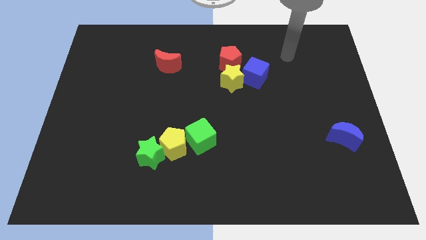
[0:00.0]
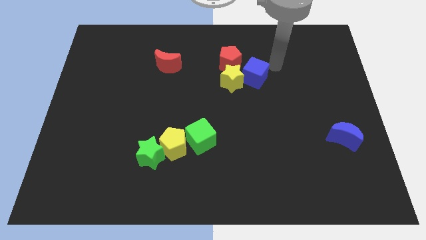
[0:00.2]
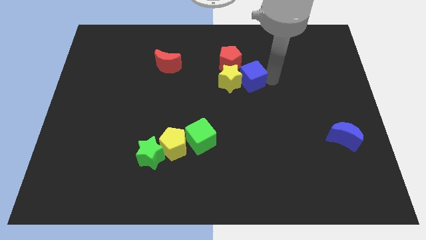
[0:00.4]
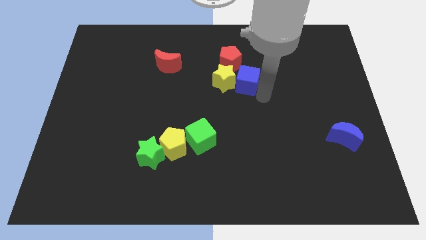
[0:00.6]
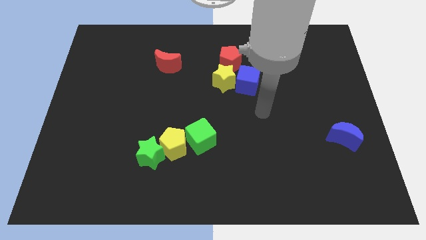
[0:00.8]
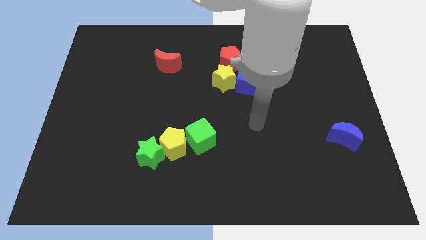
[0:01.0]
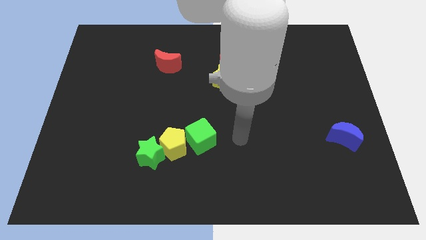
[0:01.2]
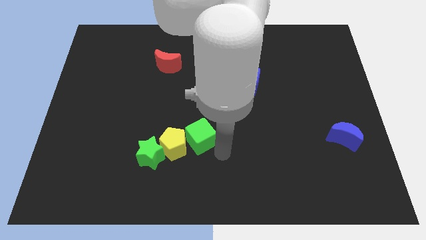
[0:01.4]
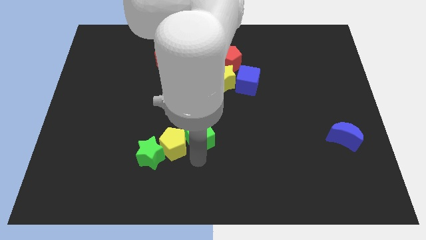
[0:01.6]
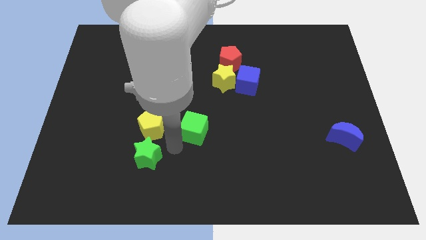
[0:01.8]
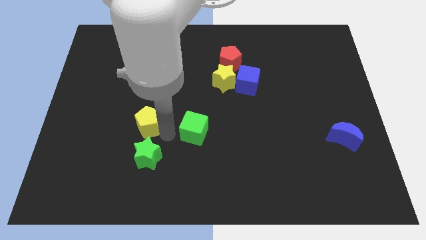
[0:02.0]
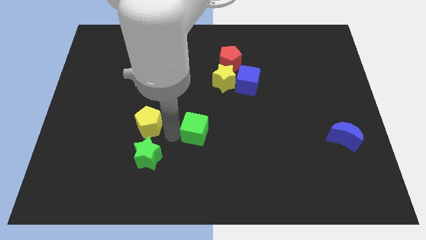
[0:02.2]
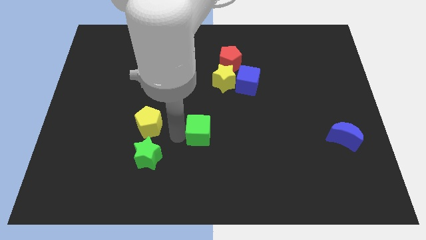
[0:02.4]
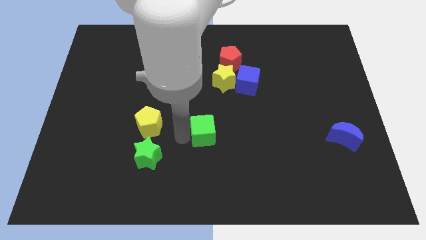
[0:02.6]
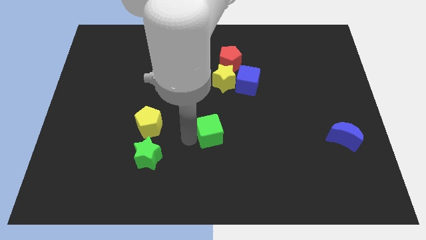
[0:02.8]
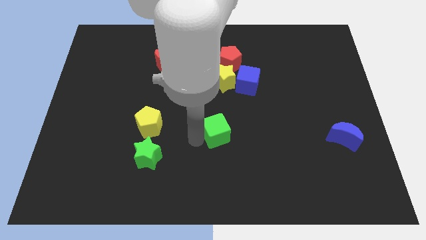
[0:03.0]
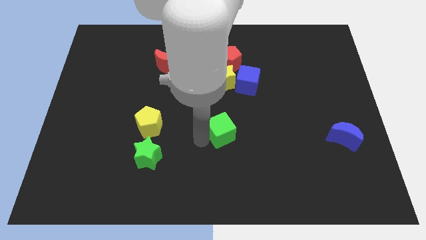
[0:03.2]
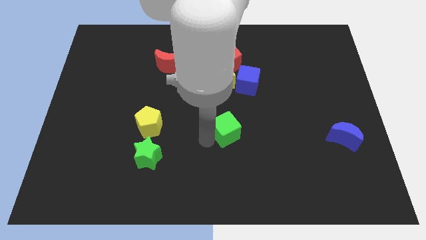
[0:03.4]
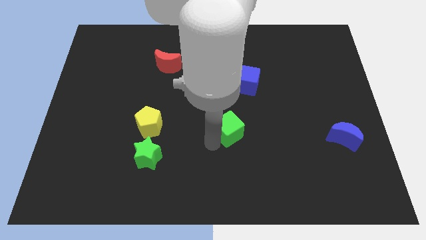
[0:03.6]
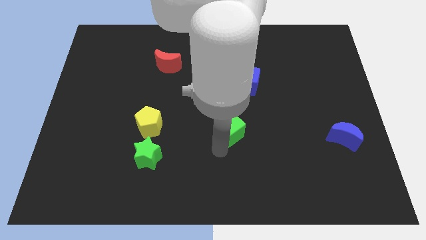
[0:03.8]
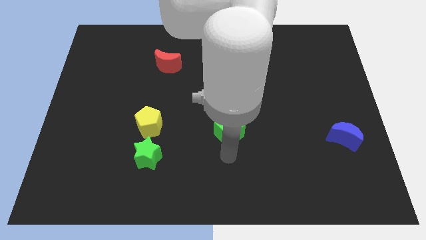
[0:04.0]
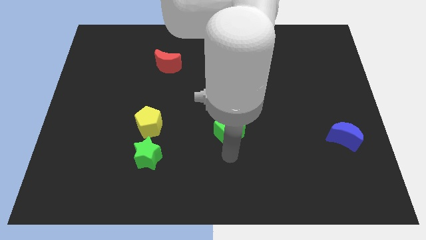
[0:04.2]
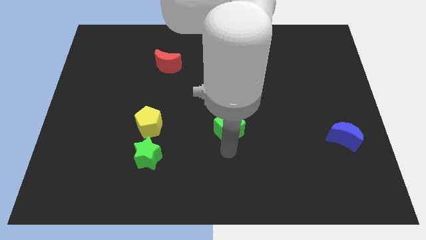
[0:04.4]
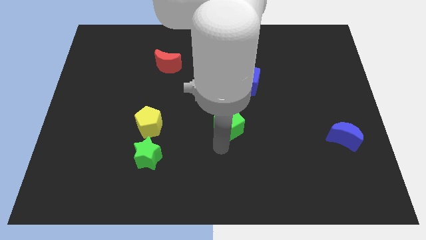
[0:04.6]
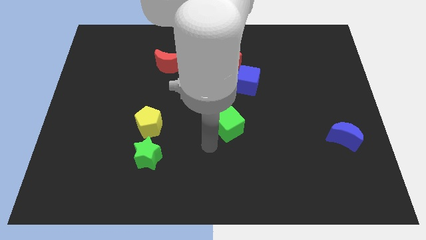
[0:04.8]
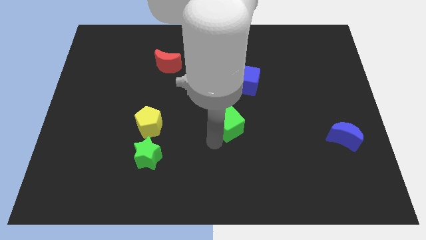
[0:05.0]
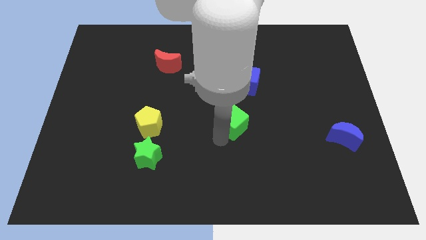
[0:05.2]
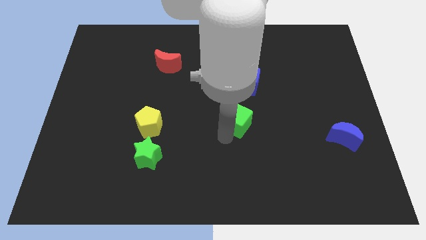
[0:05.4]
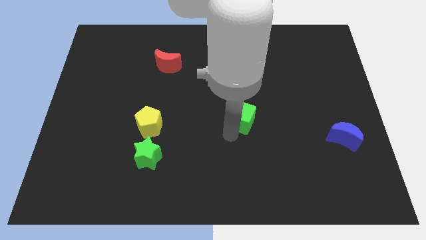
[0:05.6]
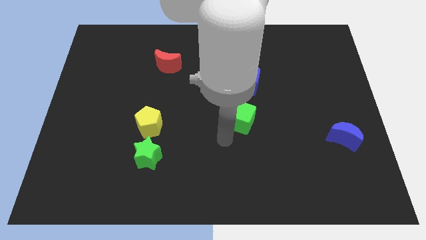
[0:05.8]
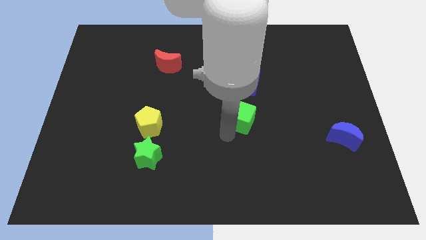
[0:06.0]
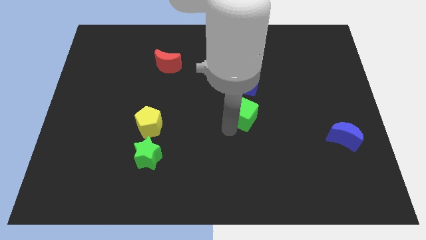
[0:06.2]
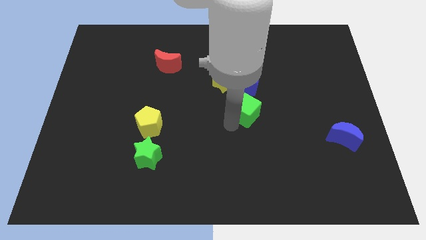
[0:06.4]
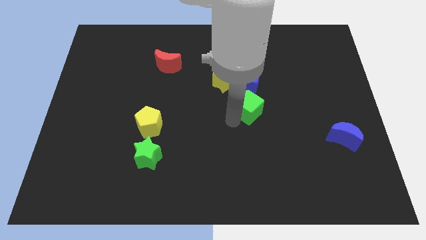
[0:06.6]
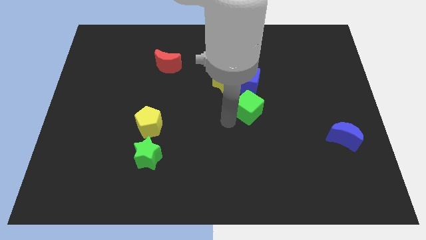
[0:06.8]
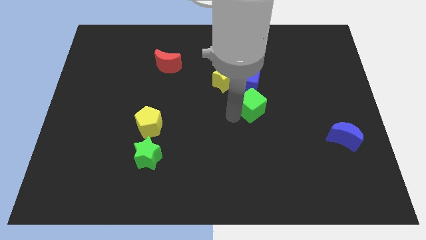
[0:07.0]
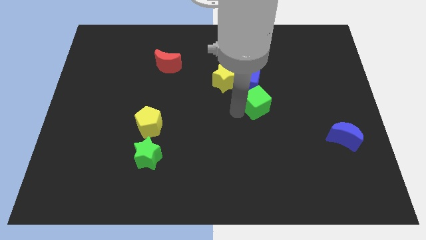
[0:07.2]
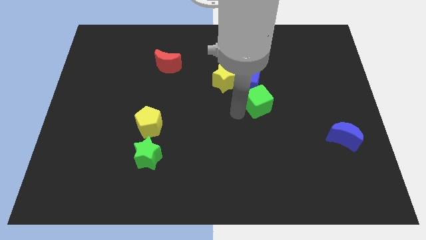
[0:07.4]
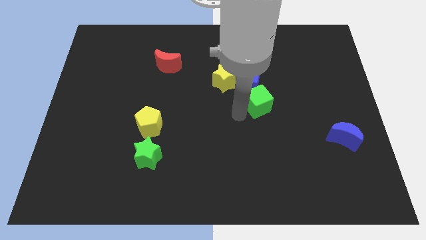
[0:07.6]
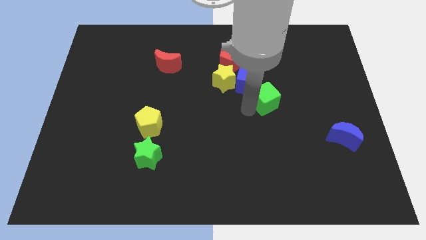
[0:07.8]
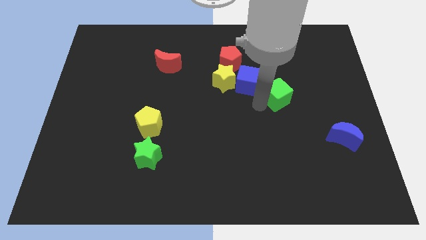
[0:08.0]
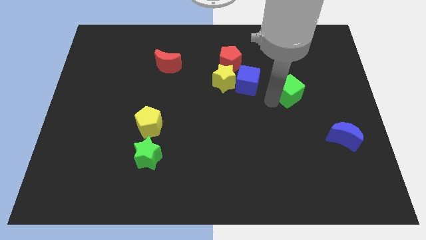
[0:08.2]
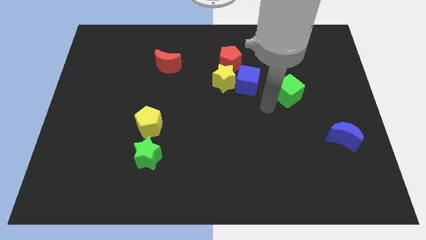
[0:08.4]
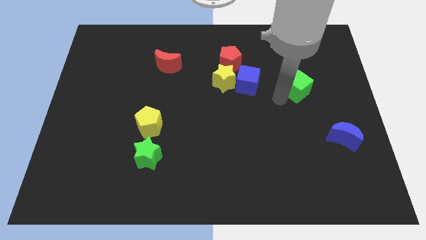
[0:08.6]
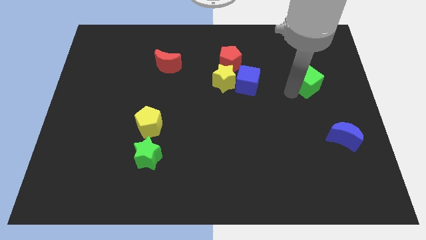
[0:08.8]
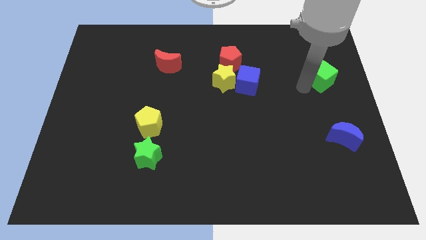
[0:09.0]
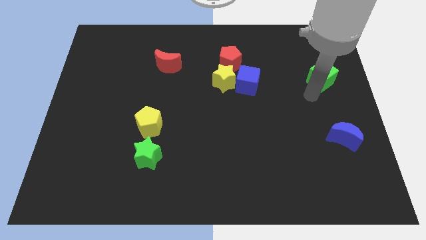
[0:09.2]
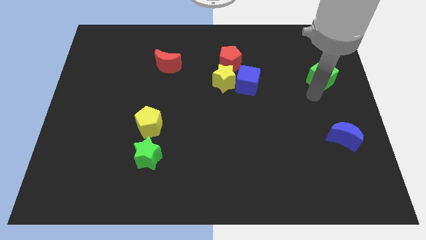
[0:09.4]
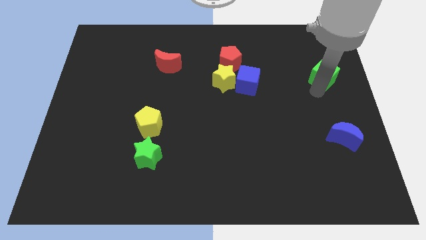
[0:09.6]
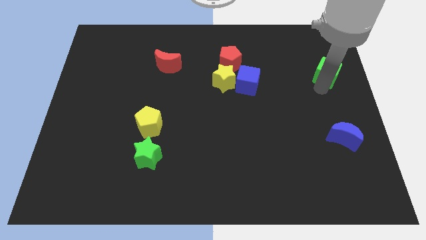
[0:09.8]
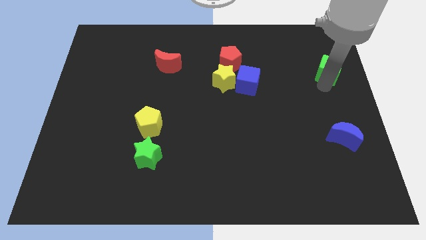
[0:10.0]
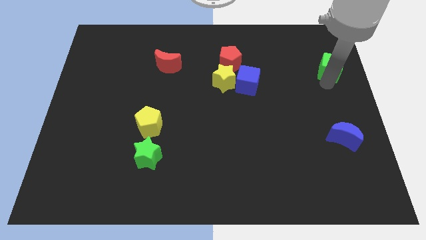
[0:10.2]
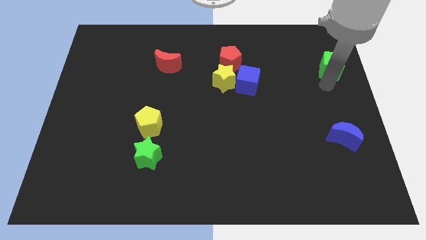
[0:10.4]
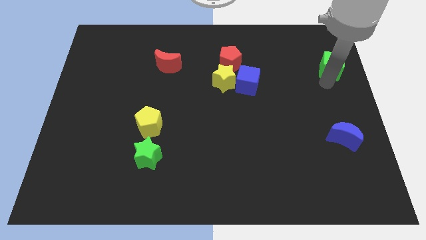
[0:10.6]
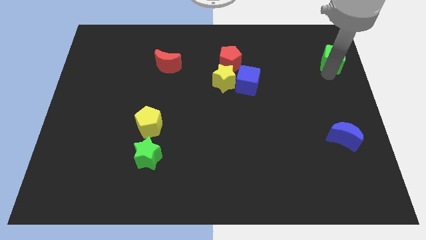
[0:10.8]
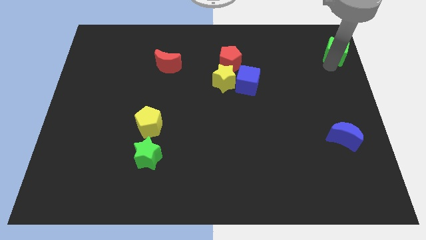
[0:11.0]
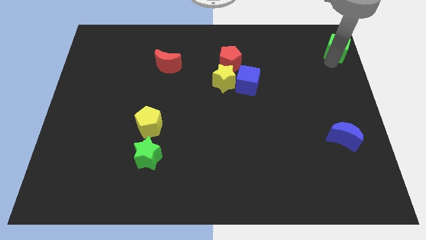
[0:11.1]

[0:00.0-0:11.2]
push the green cube to the top right
